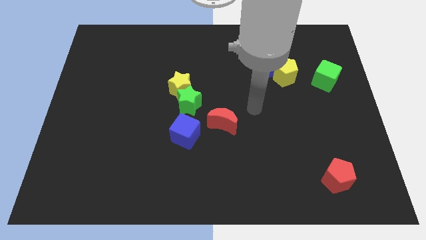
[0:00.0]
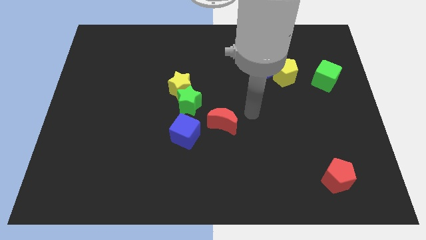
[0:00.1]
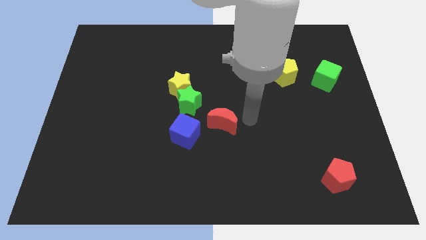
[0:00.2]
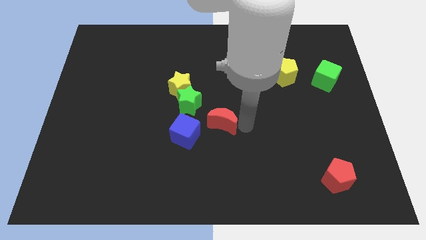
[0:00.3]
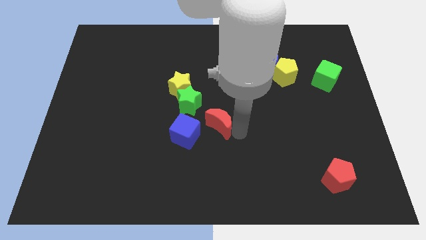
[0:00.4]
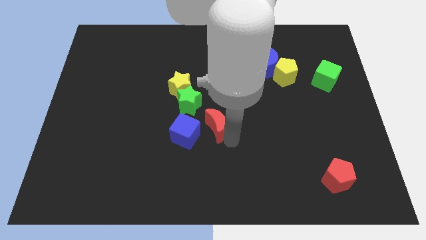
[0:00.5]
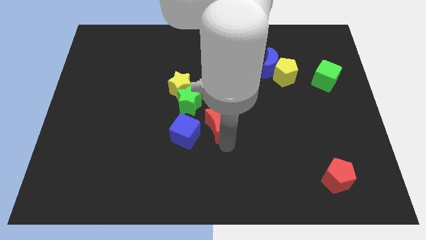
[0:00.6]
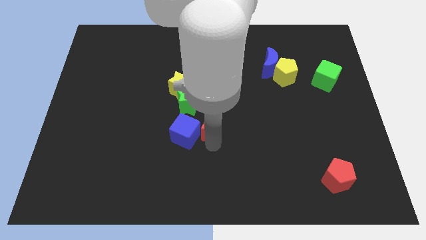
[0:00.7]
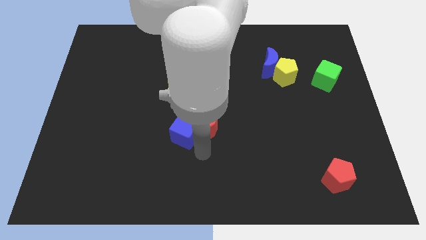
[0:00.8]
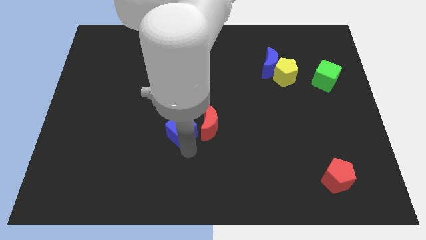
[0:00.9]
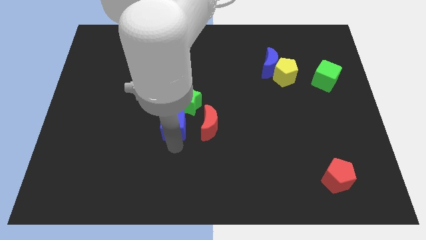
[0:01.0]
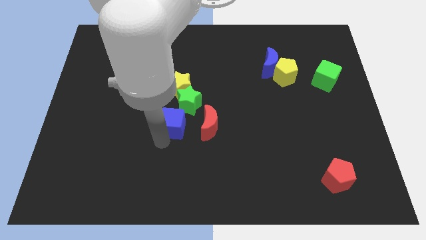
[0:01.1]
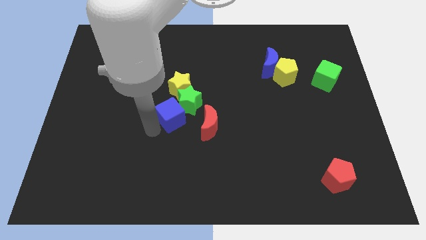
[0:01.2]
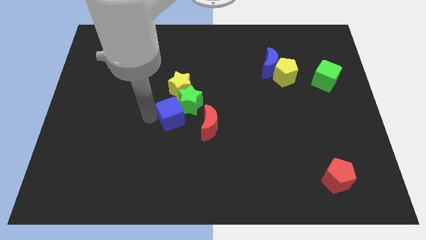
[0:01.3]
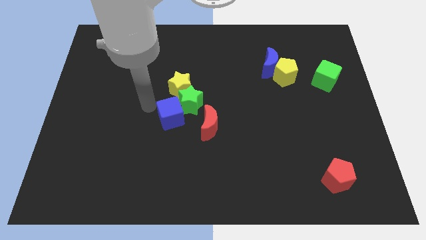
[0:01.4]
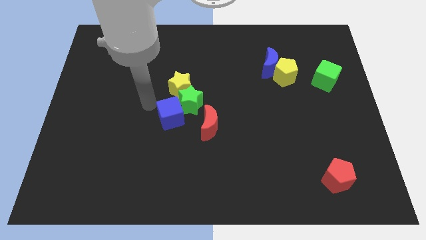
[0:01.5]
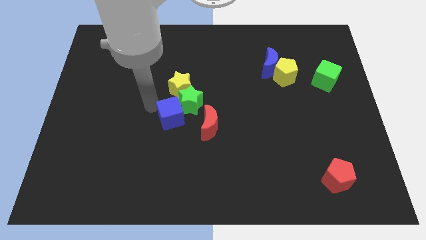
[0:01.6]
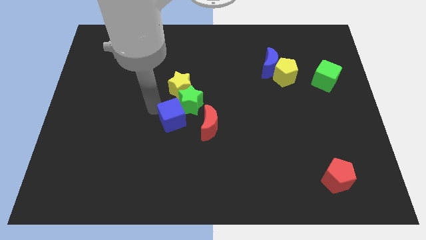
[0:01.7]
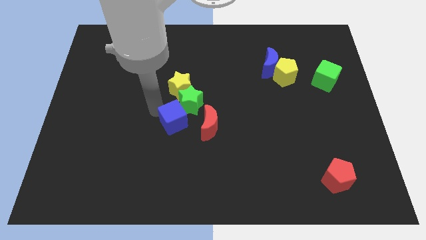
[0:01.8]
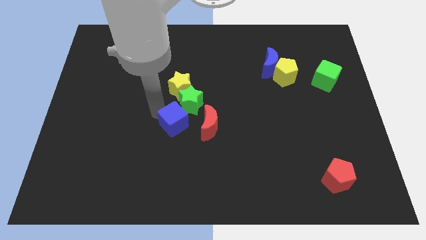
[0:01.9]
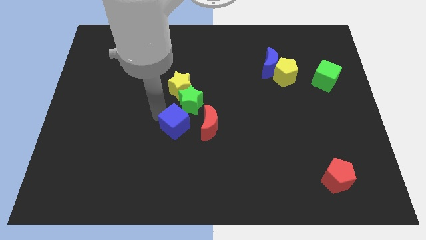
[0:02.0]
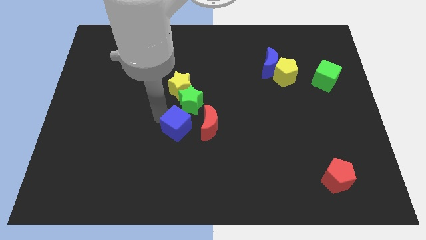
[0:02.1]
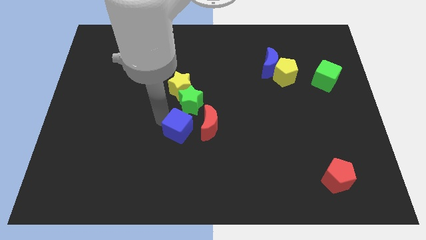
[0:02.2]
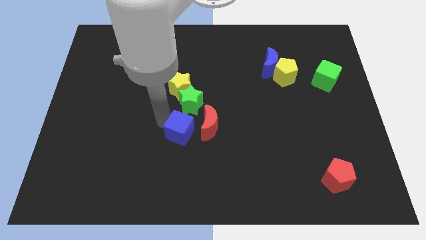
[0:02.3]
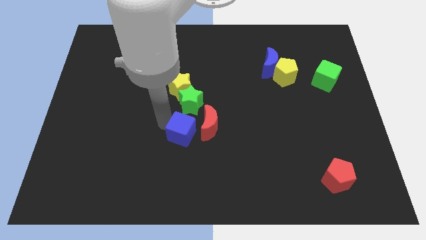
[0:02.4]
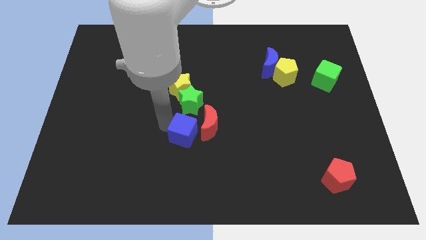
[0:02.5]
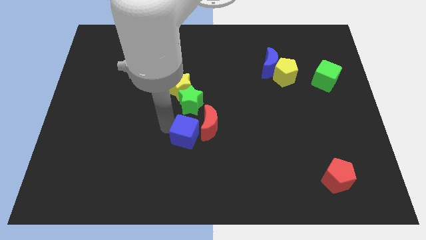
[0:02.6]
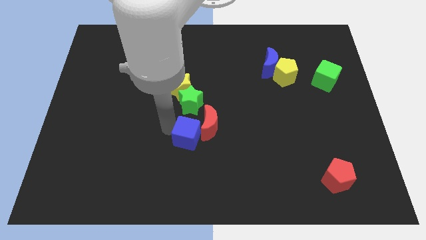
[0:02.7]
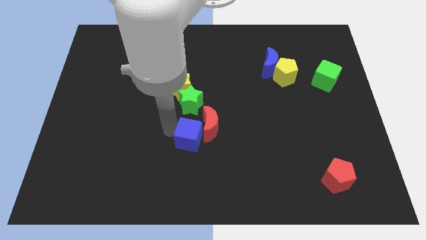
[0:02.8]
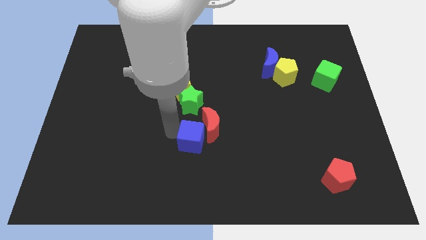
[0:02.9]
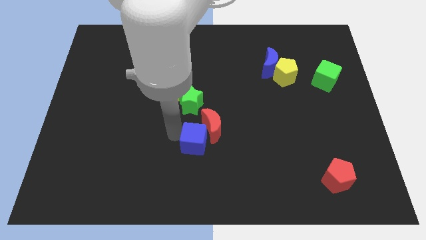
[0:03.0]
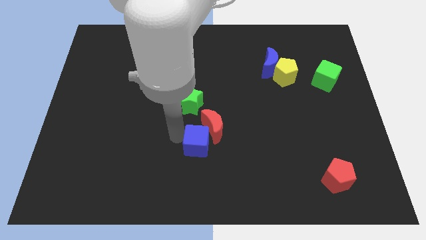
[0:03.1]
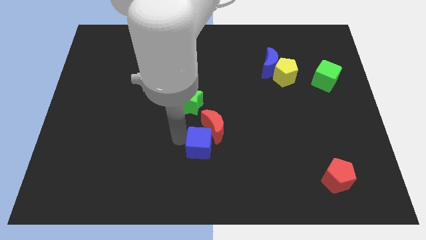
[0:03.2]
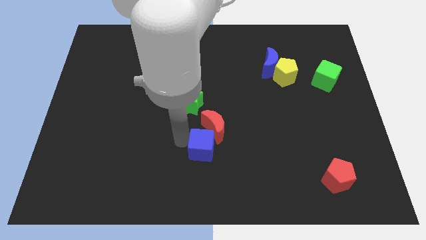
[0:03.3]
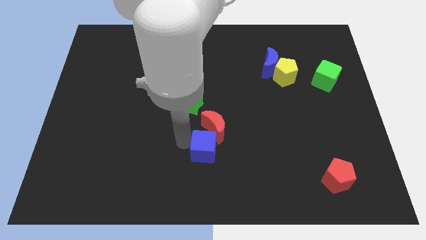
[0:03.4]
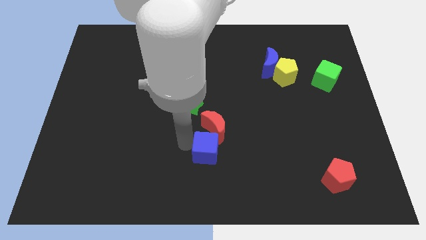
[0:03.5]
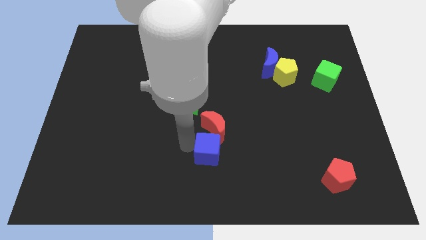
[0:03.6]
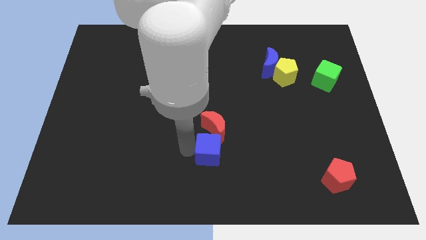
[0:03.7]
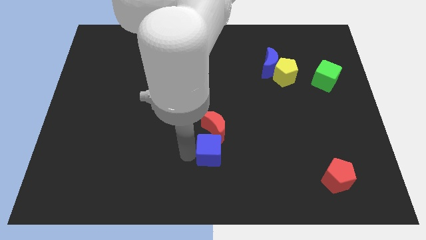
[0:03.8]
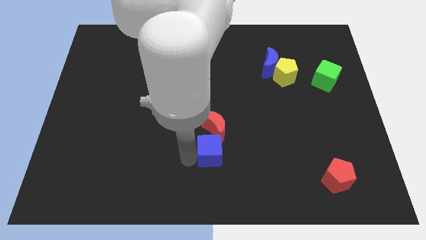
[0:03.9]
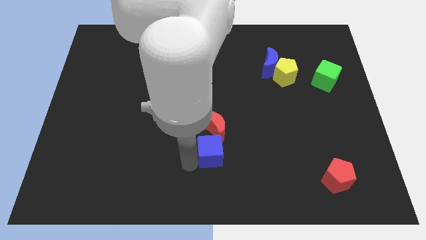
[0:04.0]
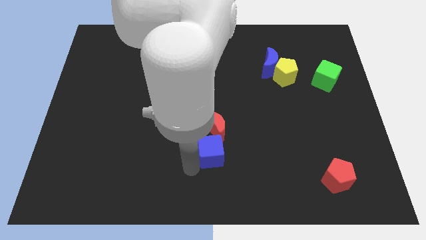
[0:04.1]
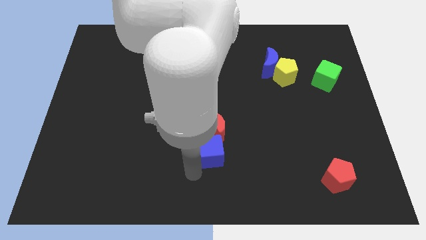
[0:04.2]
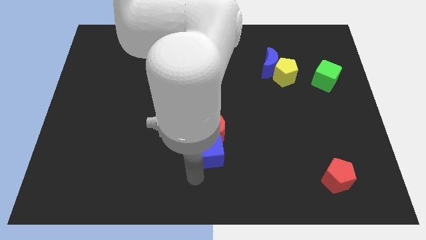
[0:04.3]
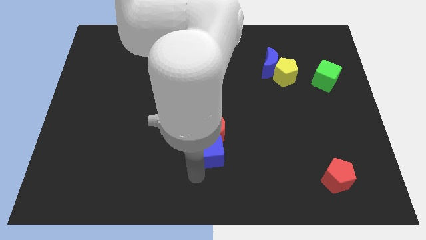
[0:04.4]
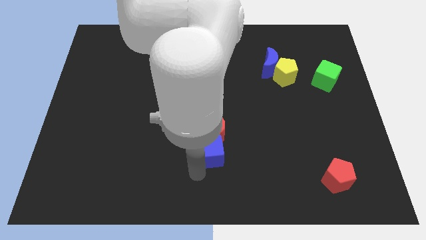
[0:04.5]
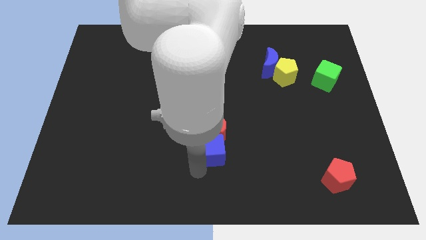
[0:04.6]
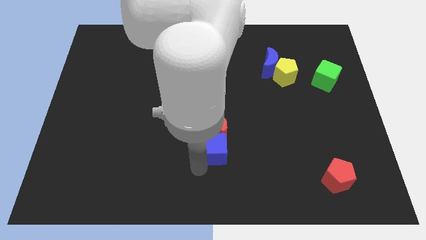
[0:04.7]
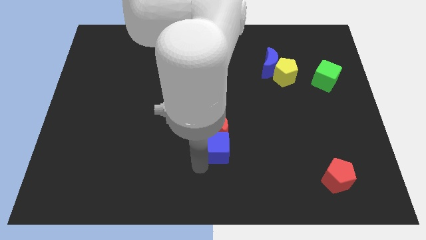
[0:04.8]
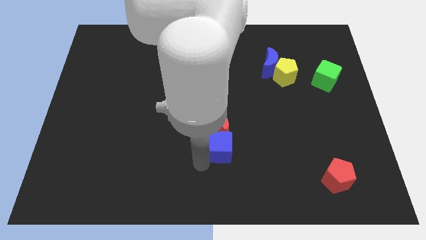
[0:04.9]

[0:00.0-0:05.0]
slightly move the blue cube right

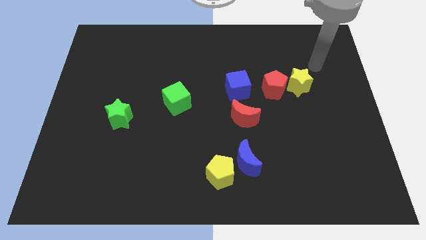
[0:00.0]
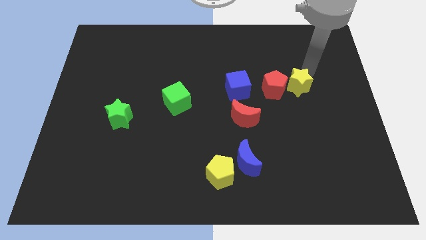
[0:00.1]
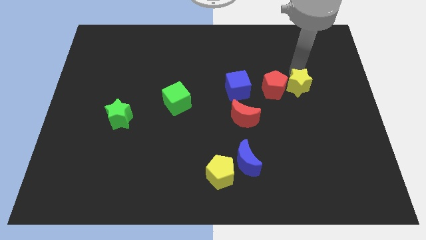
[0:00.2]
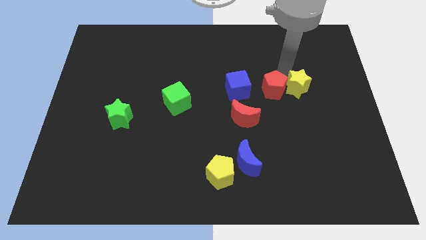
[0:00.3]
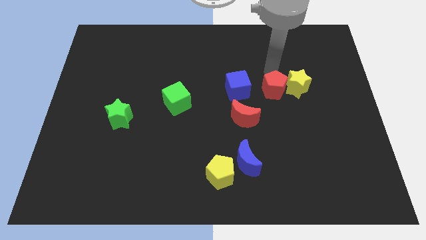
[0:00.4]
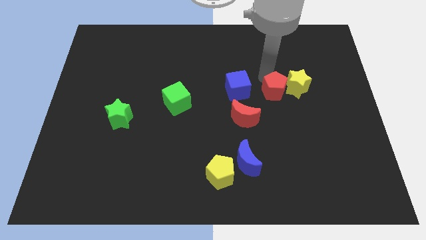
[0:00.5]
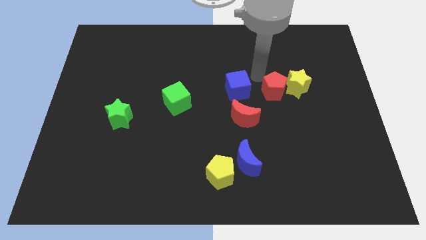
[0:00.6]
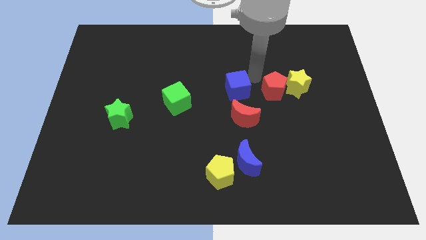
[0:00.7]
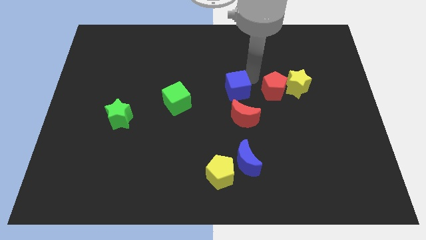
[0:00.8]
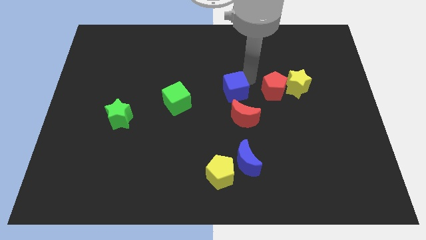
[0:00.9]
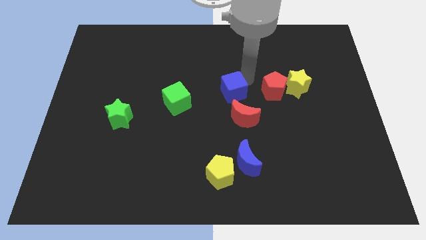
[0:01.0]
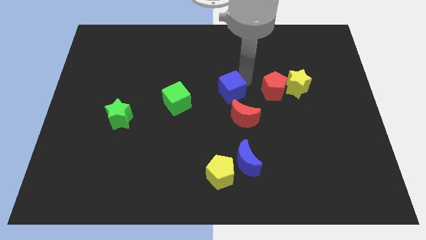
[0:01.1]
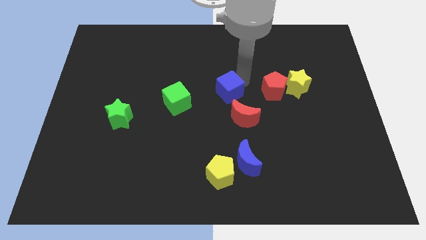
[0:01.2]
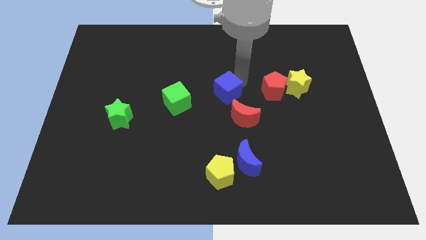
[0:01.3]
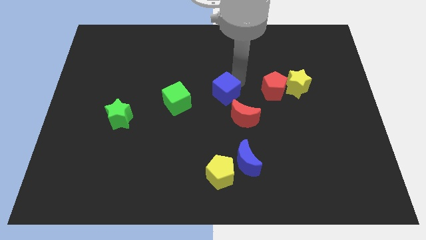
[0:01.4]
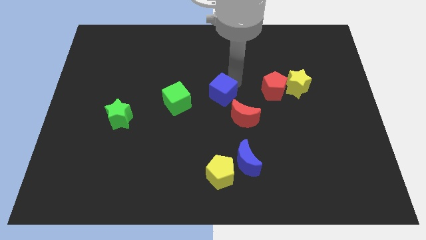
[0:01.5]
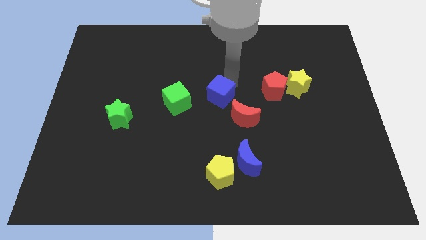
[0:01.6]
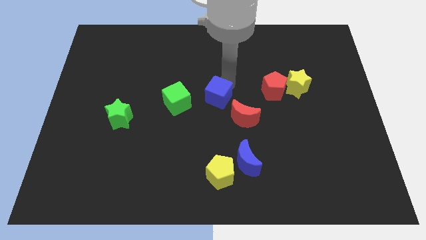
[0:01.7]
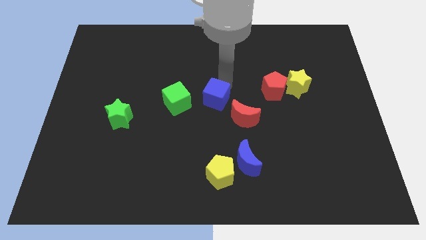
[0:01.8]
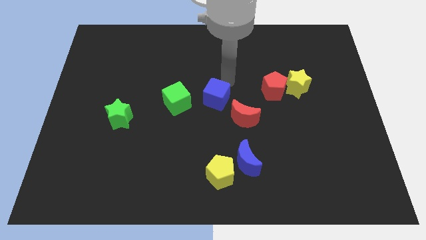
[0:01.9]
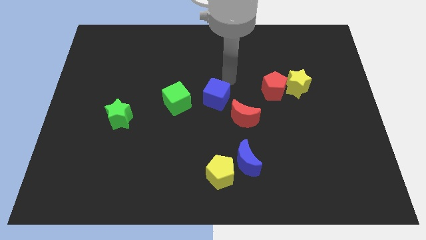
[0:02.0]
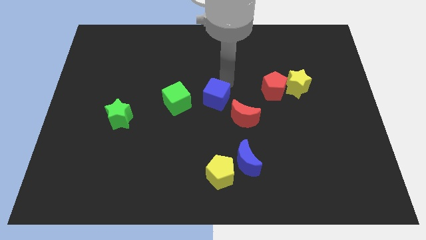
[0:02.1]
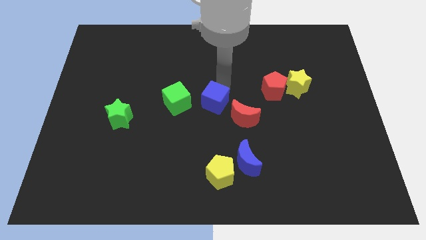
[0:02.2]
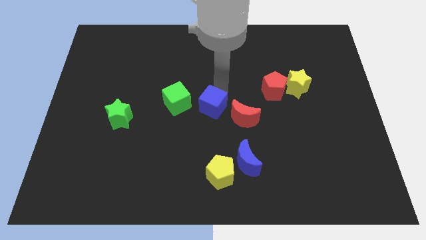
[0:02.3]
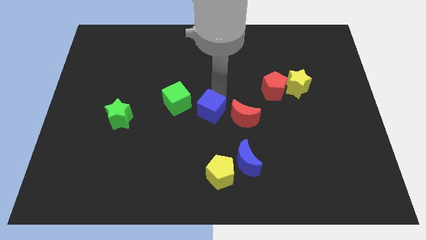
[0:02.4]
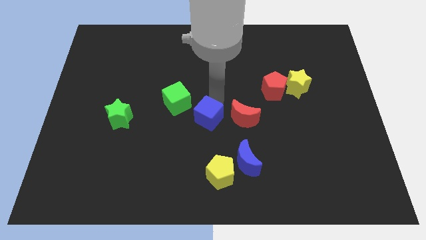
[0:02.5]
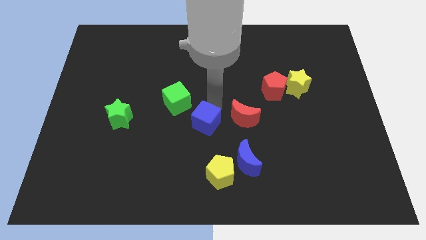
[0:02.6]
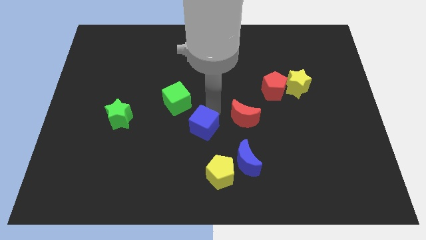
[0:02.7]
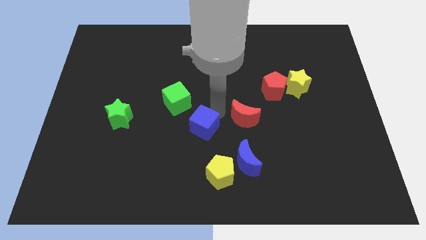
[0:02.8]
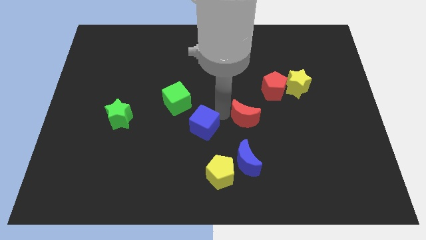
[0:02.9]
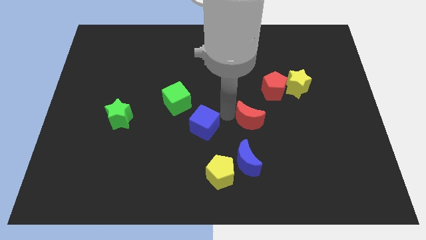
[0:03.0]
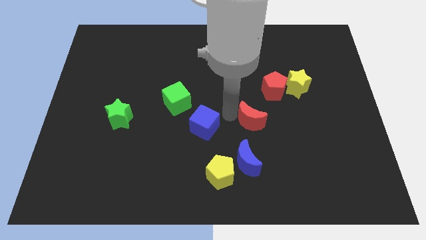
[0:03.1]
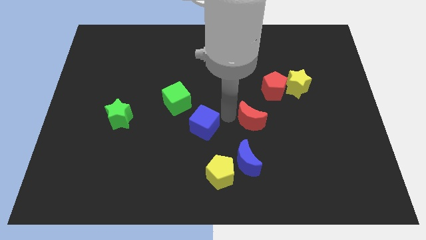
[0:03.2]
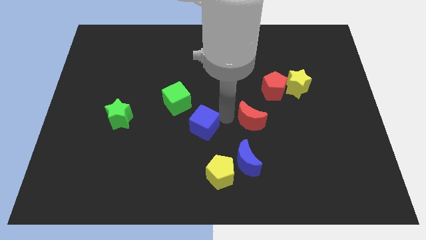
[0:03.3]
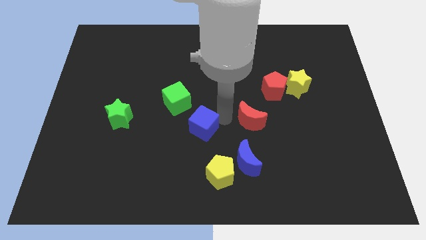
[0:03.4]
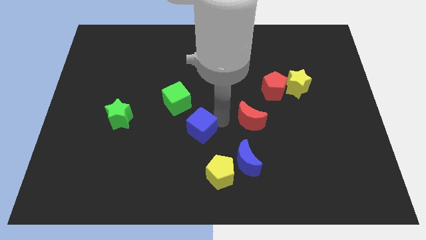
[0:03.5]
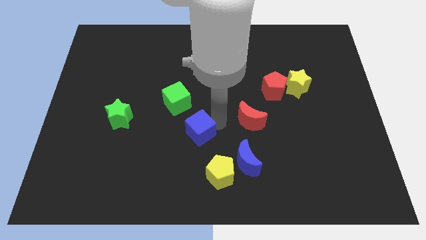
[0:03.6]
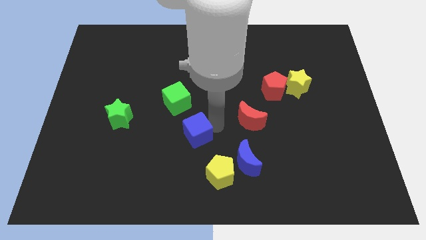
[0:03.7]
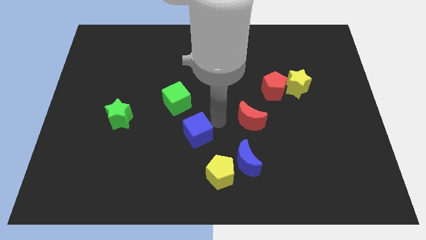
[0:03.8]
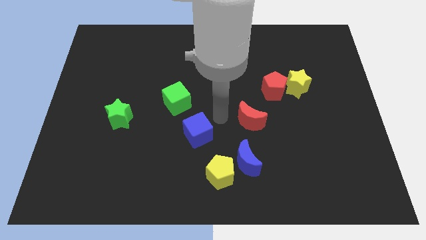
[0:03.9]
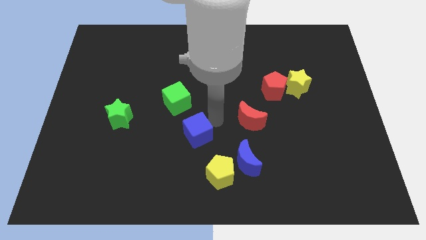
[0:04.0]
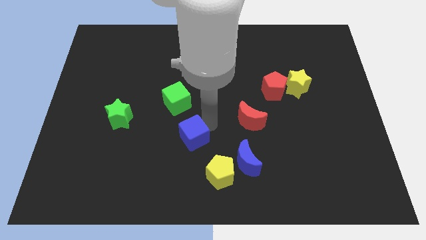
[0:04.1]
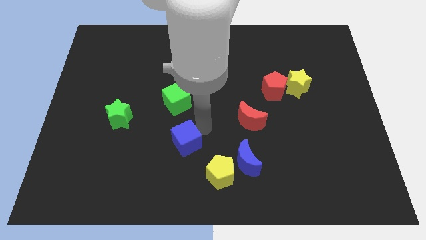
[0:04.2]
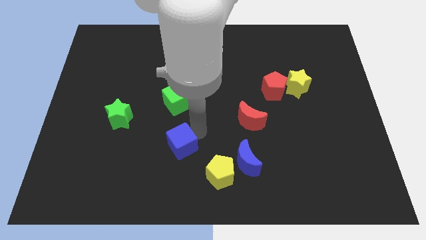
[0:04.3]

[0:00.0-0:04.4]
push the blue cube down and then to the left
